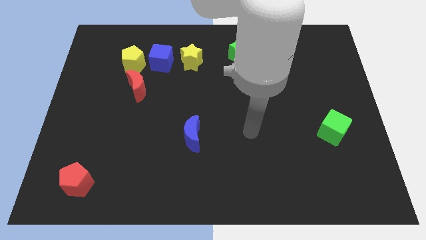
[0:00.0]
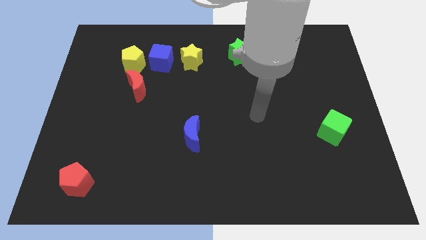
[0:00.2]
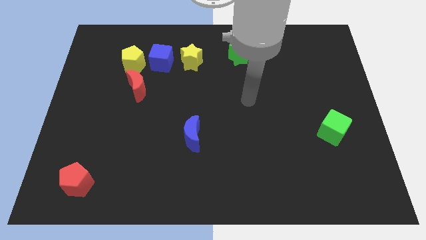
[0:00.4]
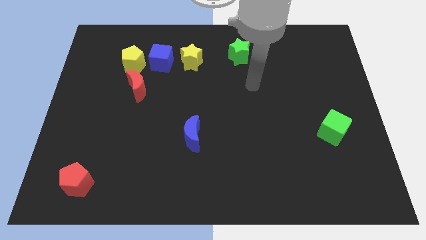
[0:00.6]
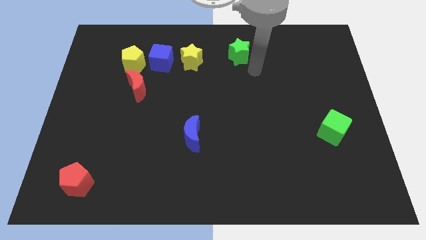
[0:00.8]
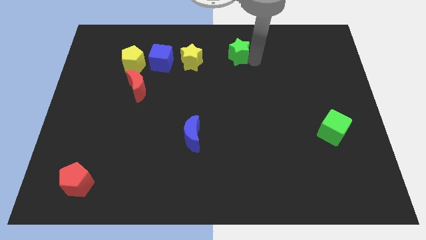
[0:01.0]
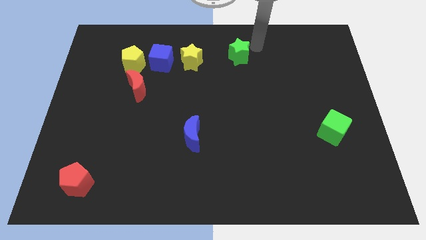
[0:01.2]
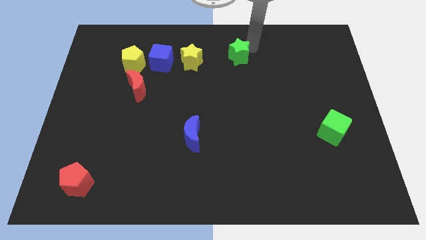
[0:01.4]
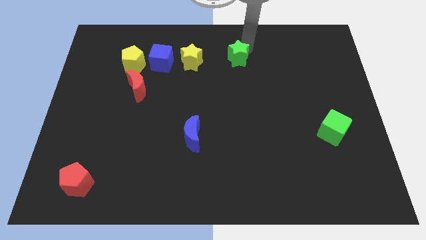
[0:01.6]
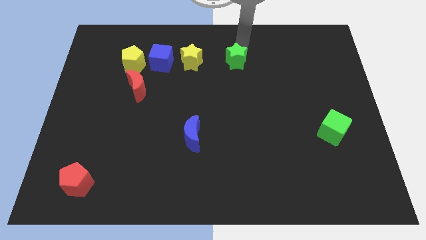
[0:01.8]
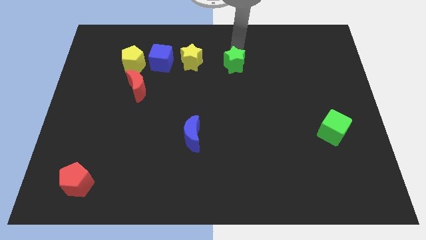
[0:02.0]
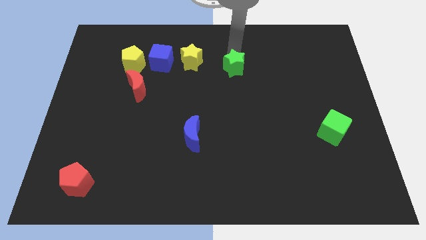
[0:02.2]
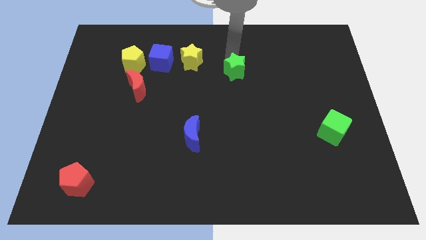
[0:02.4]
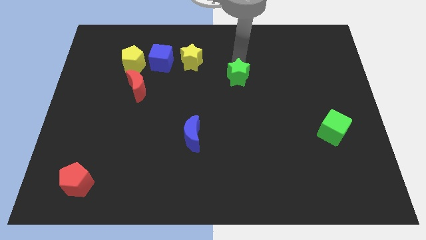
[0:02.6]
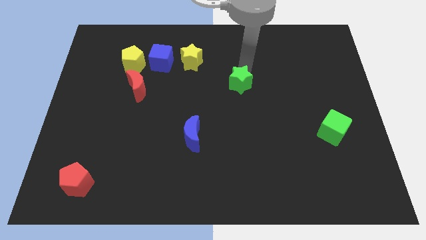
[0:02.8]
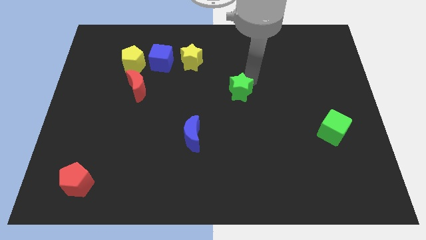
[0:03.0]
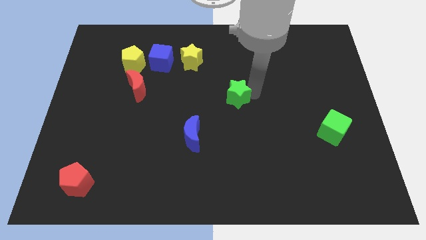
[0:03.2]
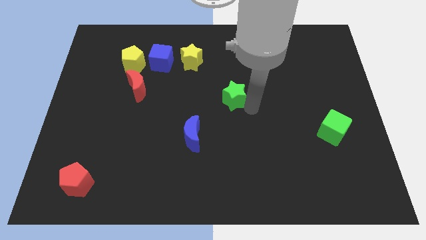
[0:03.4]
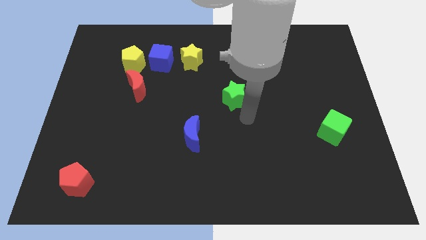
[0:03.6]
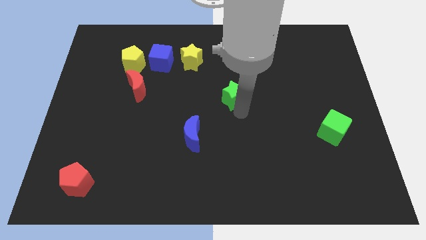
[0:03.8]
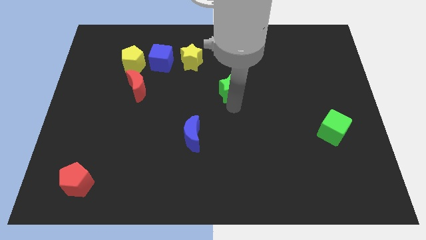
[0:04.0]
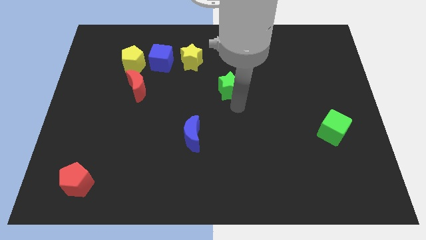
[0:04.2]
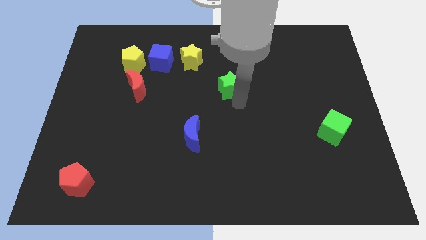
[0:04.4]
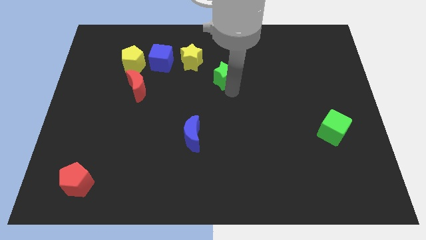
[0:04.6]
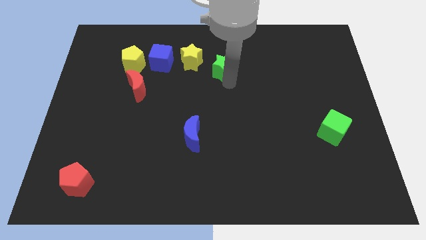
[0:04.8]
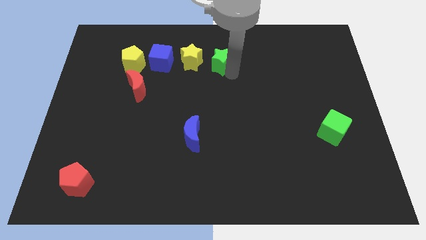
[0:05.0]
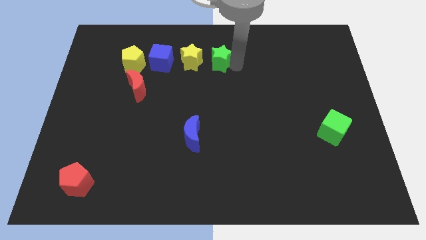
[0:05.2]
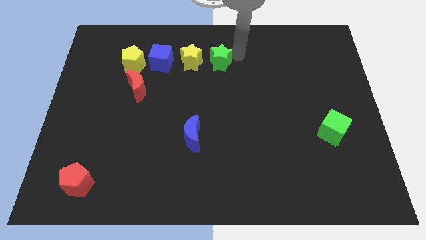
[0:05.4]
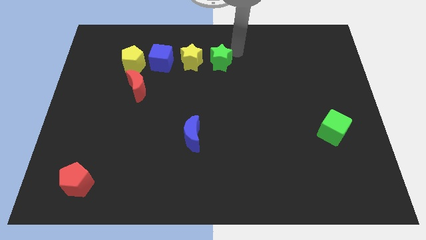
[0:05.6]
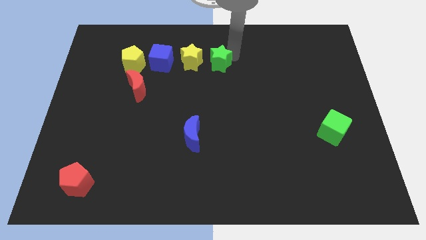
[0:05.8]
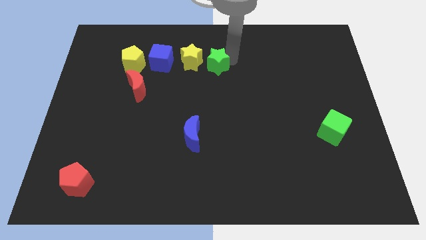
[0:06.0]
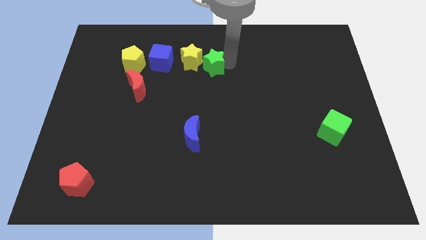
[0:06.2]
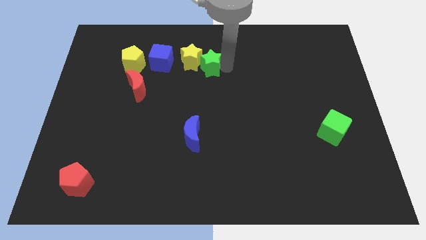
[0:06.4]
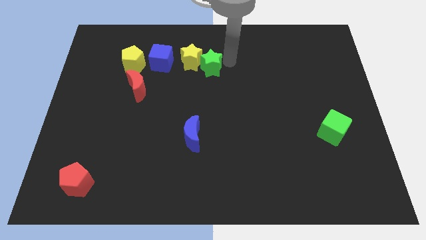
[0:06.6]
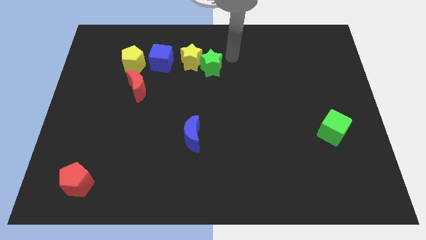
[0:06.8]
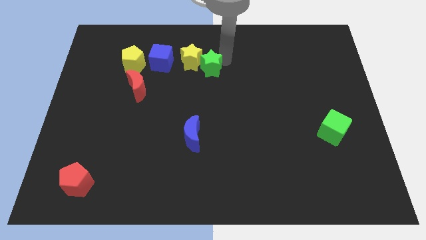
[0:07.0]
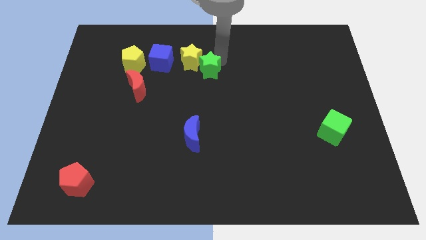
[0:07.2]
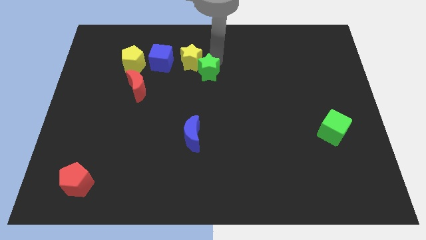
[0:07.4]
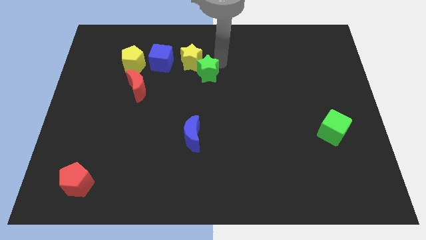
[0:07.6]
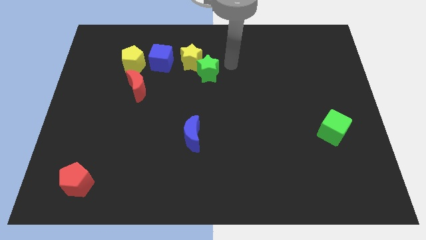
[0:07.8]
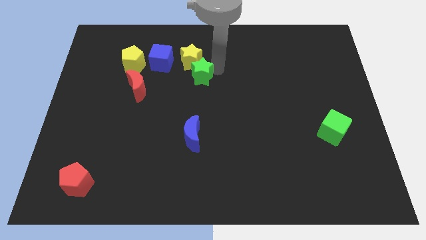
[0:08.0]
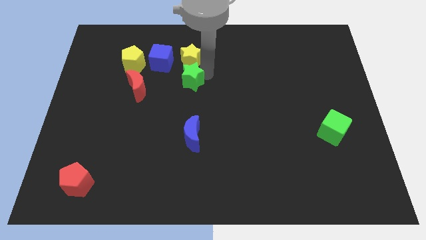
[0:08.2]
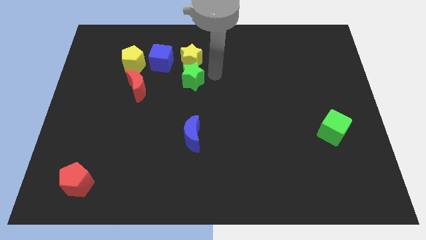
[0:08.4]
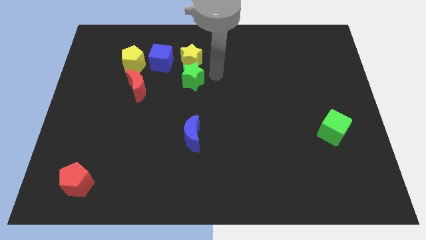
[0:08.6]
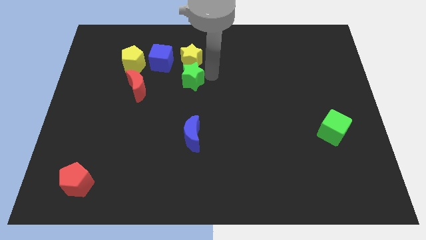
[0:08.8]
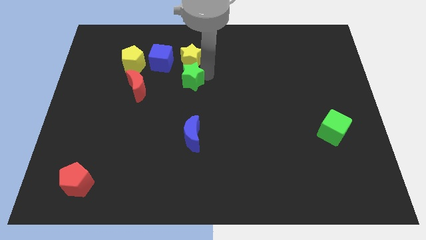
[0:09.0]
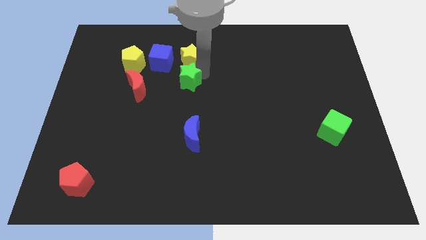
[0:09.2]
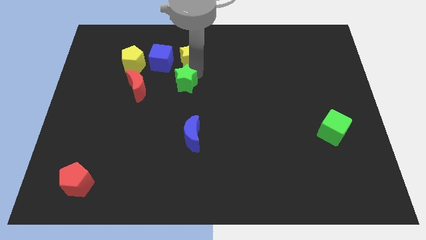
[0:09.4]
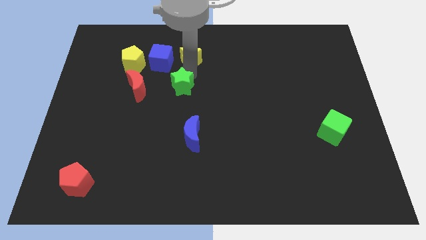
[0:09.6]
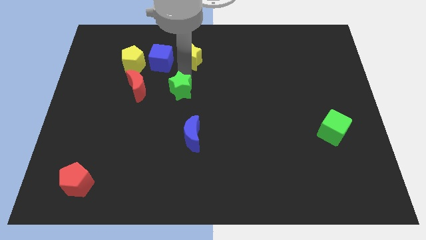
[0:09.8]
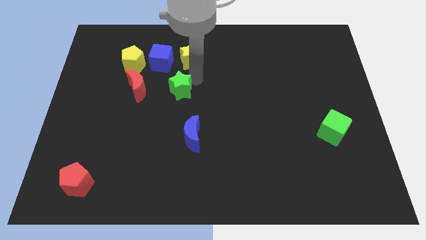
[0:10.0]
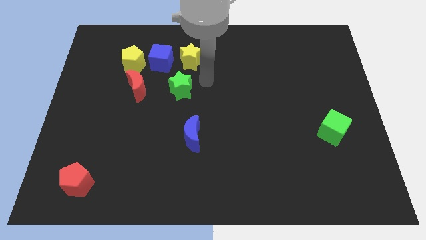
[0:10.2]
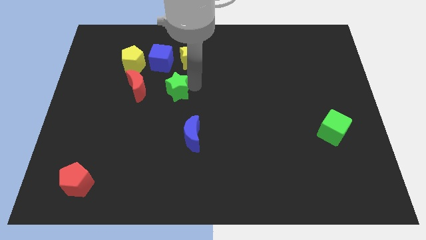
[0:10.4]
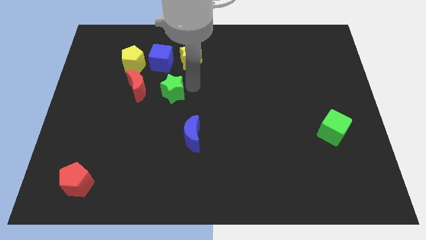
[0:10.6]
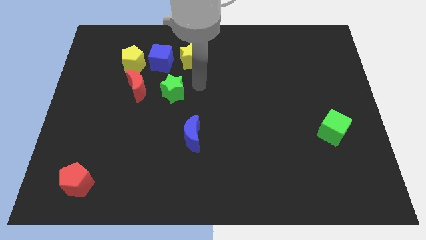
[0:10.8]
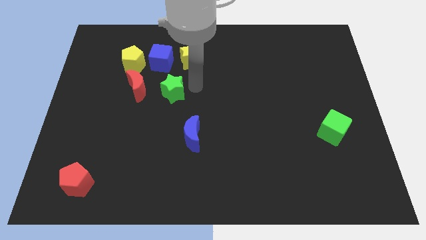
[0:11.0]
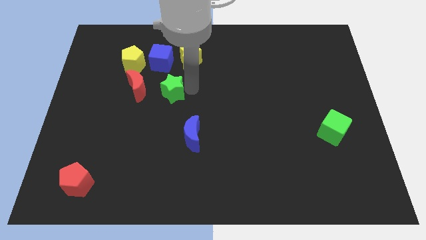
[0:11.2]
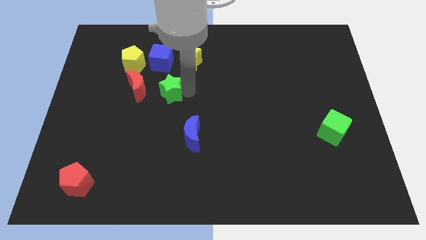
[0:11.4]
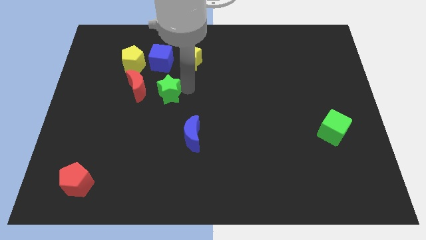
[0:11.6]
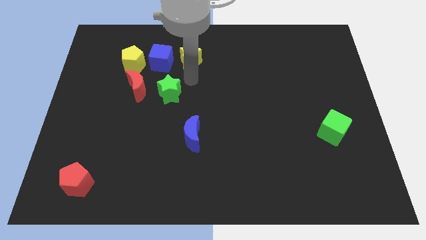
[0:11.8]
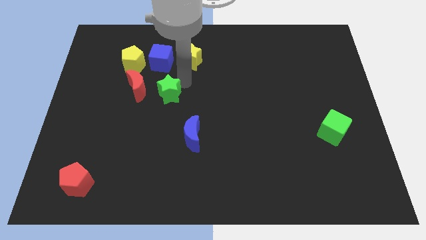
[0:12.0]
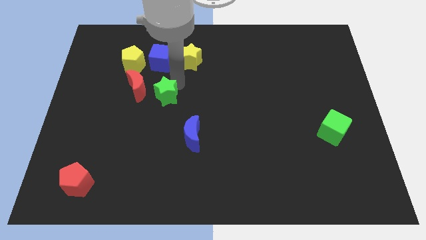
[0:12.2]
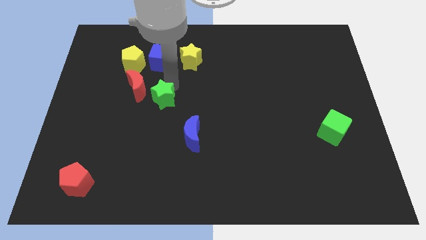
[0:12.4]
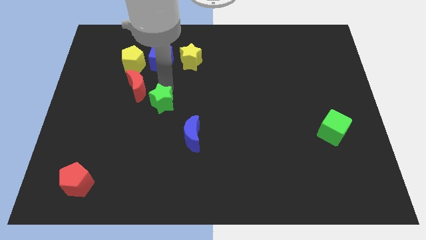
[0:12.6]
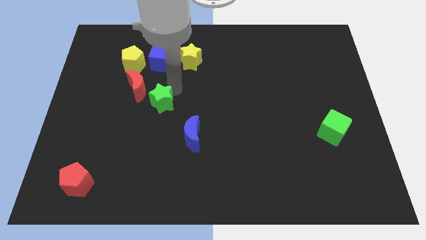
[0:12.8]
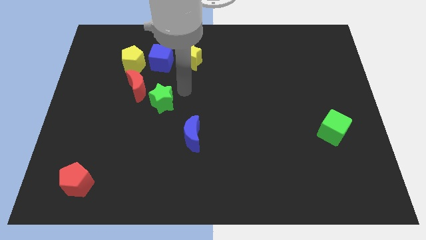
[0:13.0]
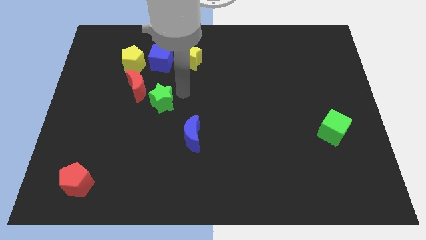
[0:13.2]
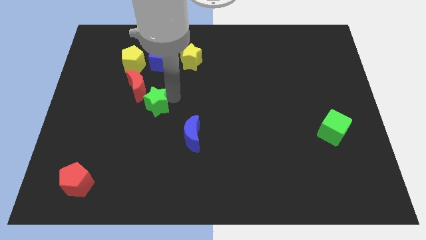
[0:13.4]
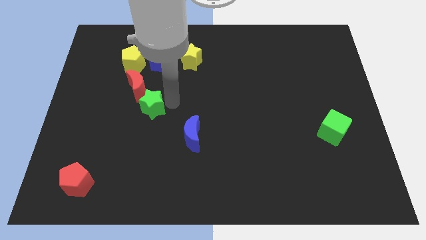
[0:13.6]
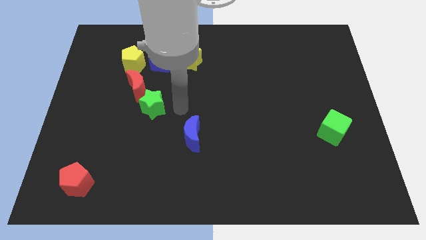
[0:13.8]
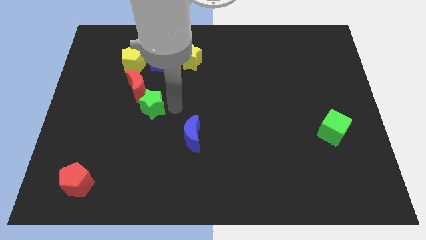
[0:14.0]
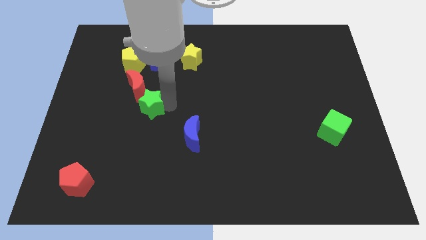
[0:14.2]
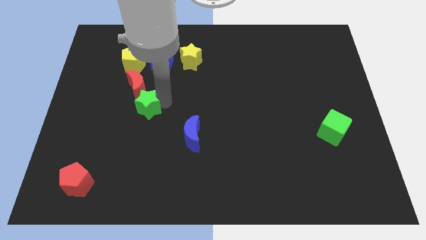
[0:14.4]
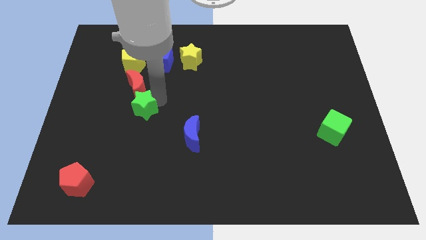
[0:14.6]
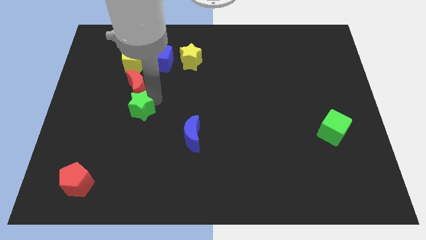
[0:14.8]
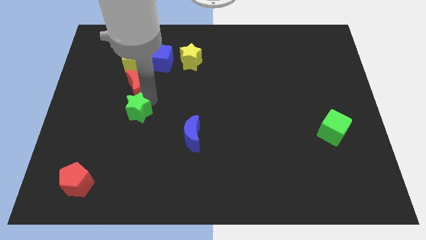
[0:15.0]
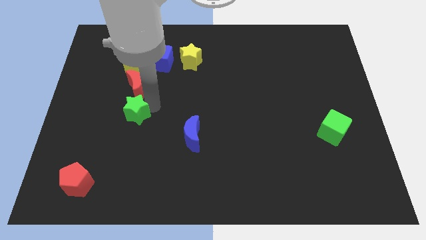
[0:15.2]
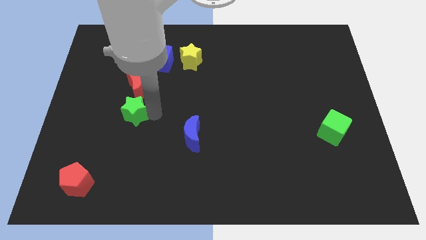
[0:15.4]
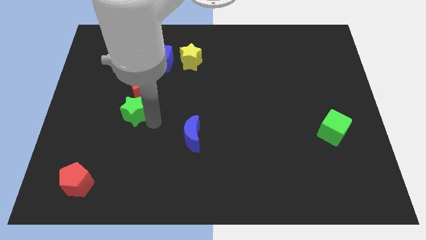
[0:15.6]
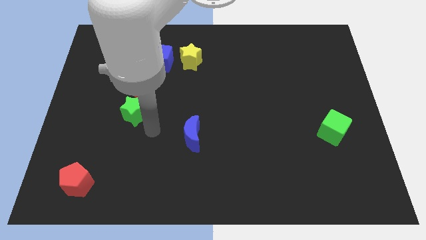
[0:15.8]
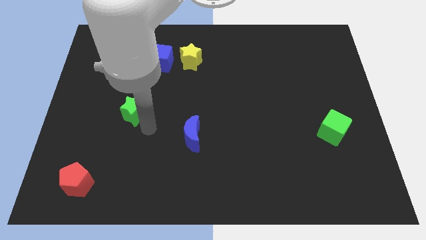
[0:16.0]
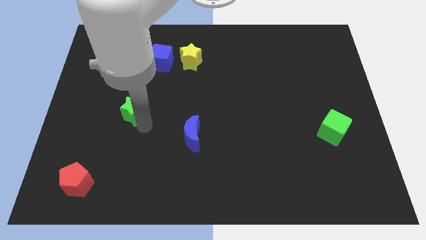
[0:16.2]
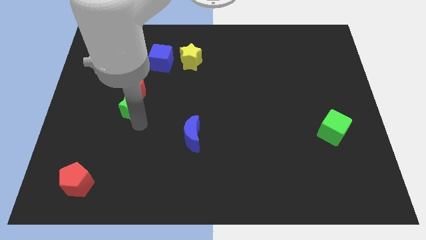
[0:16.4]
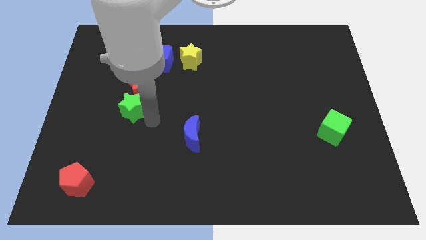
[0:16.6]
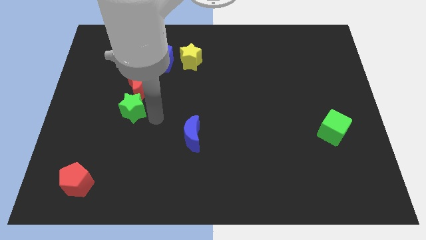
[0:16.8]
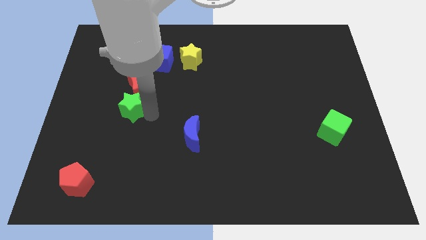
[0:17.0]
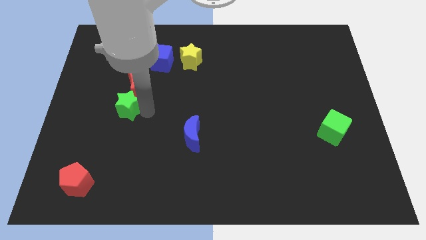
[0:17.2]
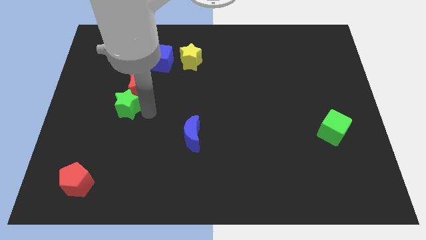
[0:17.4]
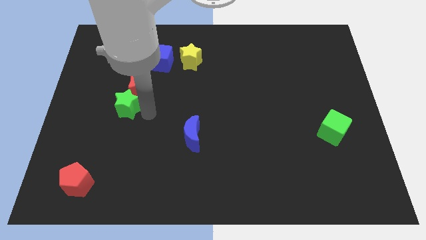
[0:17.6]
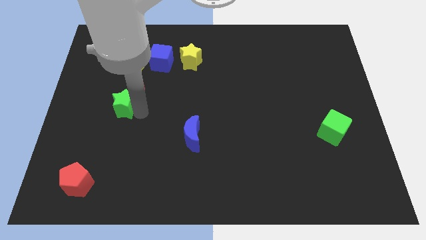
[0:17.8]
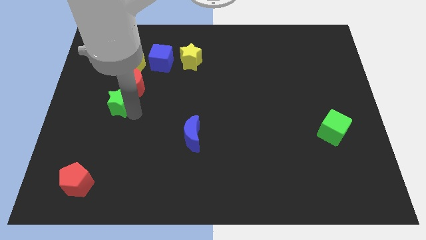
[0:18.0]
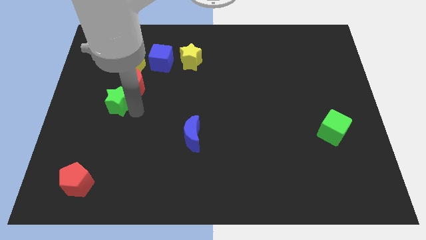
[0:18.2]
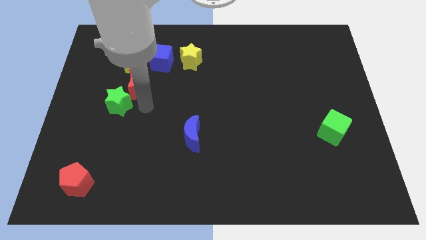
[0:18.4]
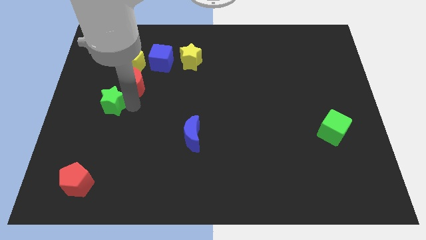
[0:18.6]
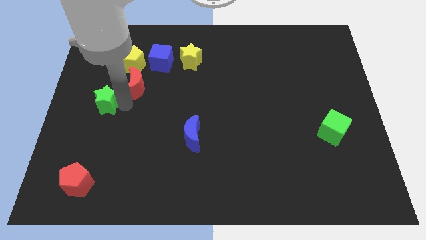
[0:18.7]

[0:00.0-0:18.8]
slide the green star to the left side of the board
